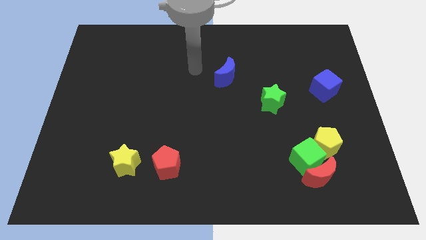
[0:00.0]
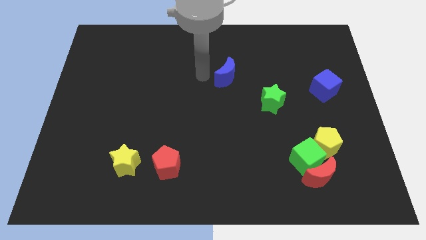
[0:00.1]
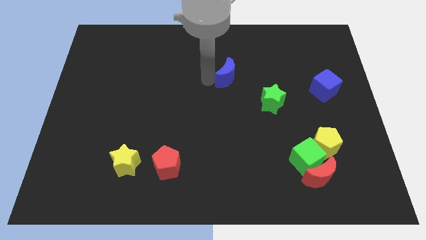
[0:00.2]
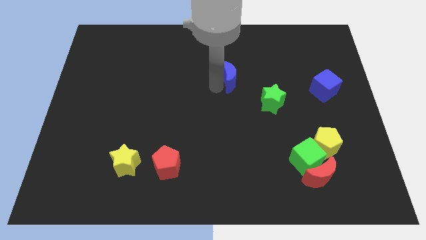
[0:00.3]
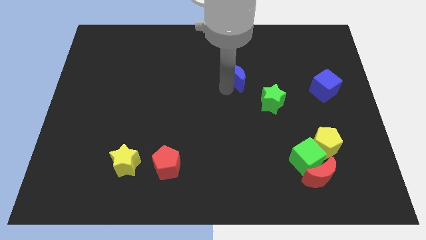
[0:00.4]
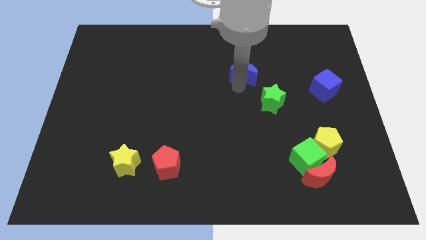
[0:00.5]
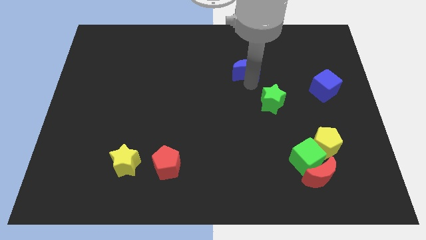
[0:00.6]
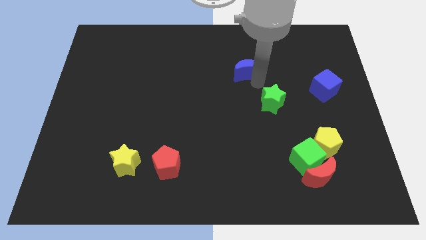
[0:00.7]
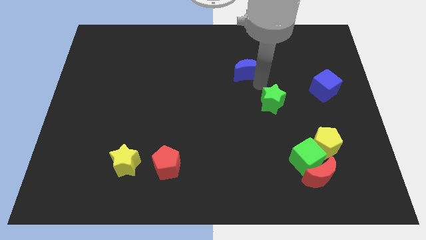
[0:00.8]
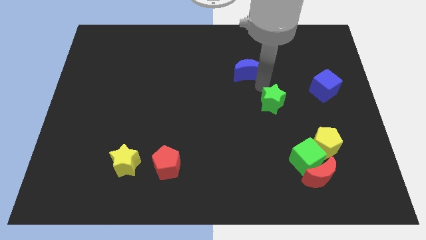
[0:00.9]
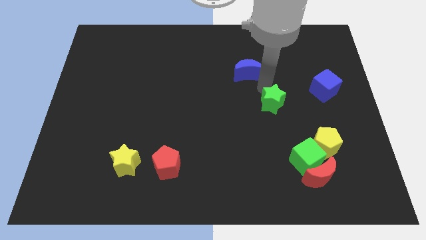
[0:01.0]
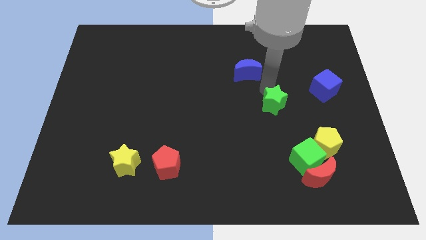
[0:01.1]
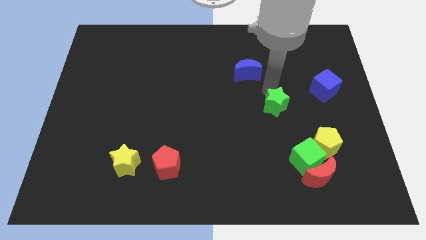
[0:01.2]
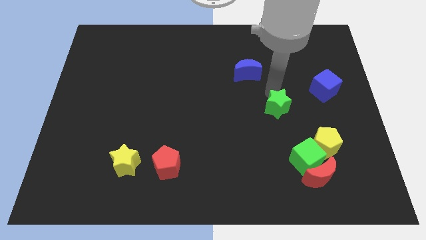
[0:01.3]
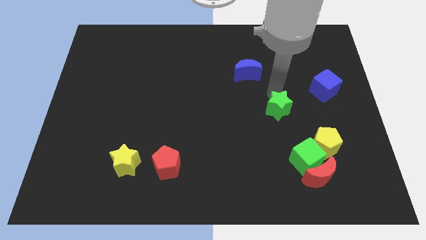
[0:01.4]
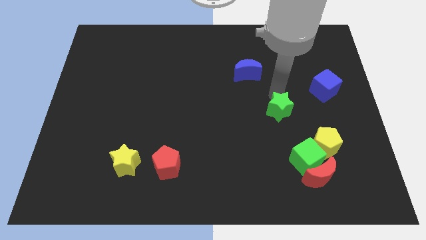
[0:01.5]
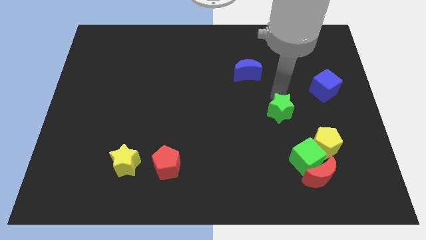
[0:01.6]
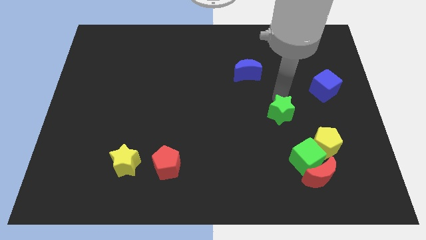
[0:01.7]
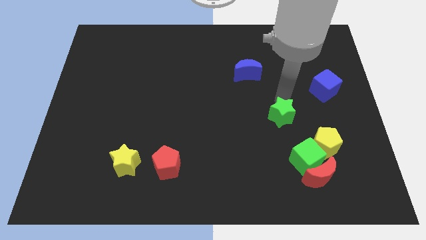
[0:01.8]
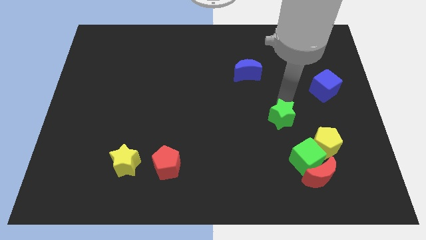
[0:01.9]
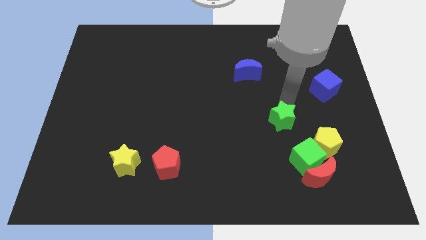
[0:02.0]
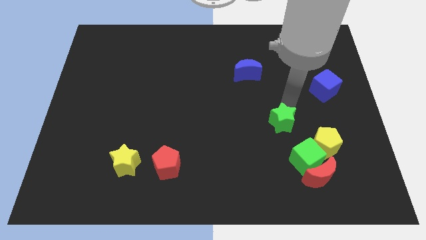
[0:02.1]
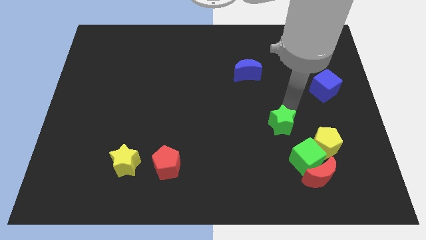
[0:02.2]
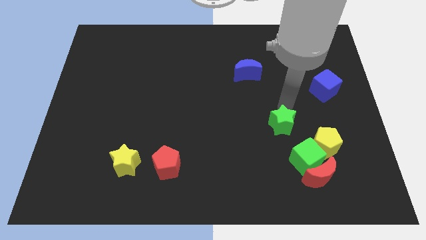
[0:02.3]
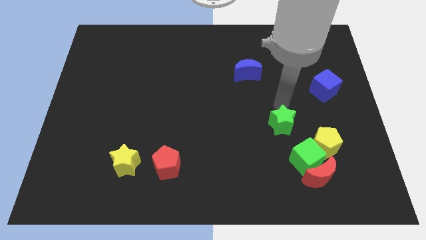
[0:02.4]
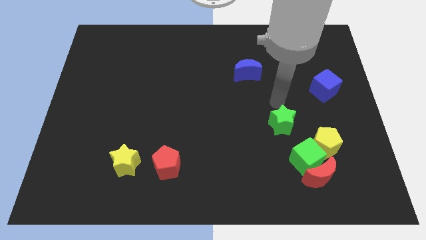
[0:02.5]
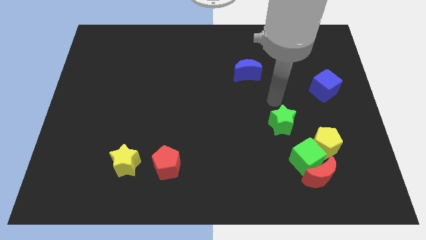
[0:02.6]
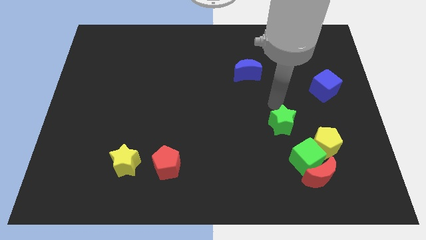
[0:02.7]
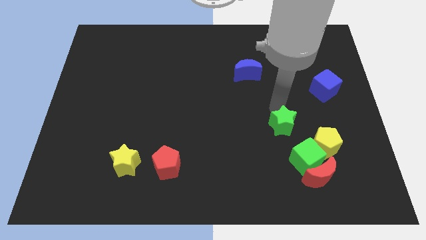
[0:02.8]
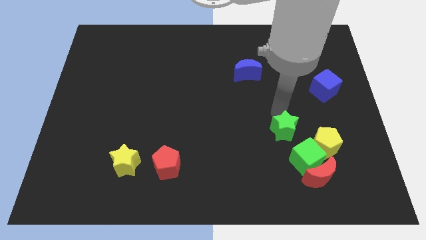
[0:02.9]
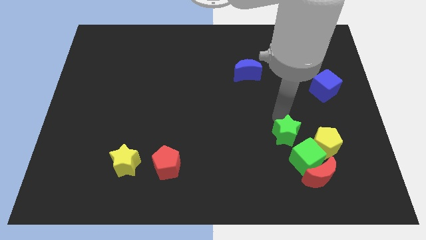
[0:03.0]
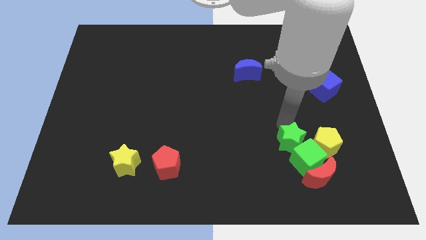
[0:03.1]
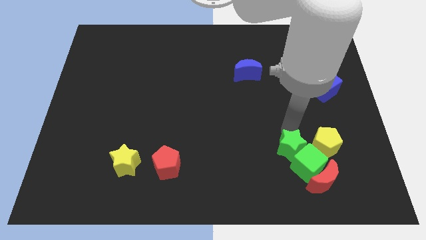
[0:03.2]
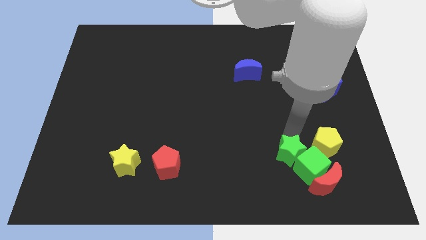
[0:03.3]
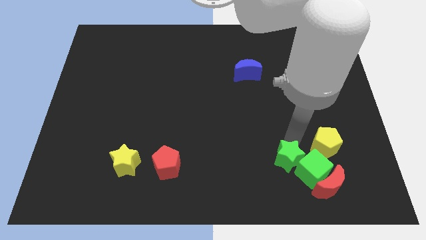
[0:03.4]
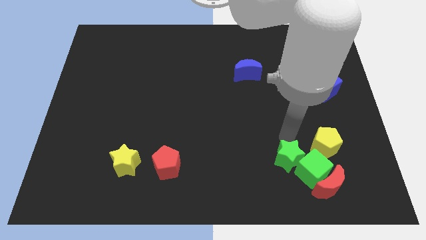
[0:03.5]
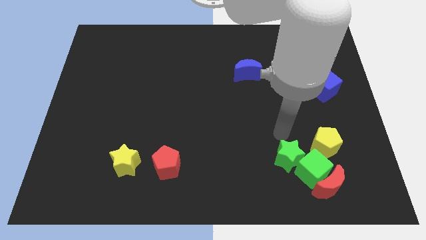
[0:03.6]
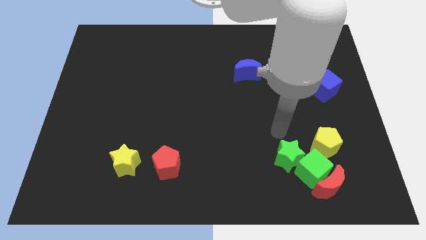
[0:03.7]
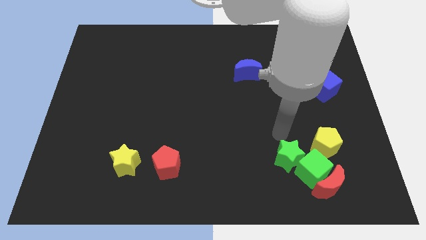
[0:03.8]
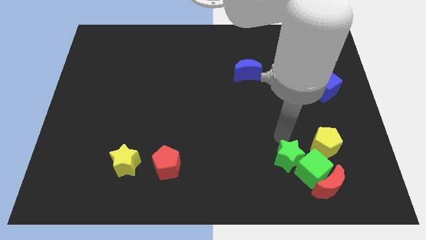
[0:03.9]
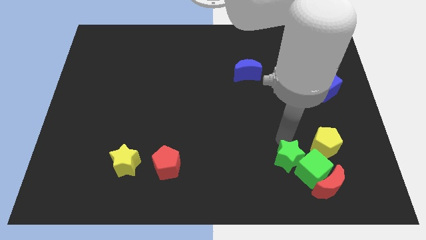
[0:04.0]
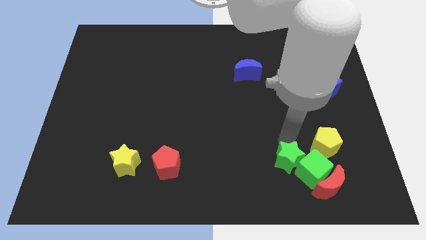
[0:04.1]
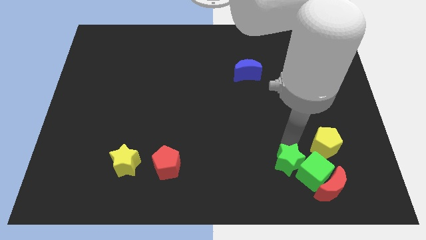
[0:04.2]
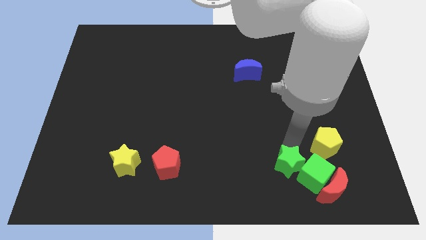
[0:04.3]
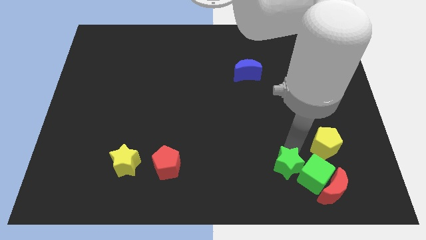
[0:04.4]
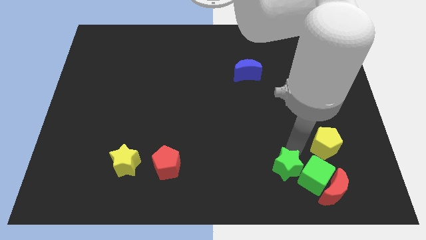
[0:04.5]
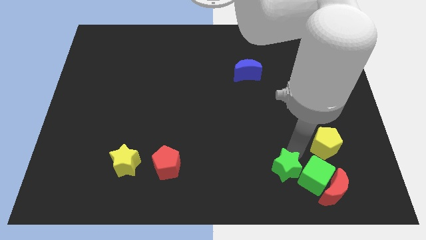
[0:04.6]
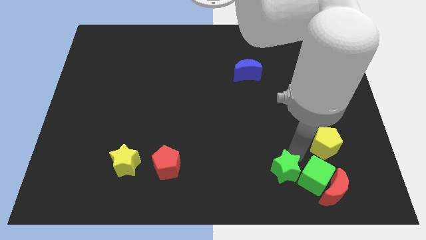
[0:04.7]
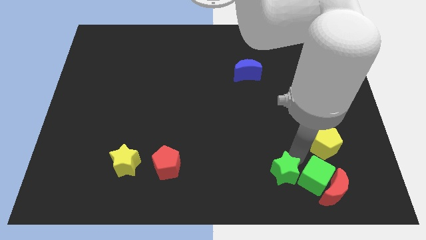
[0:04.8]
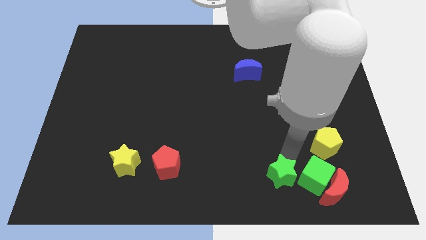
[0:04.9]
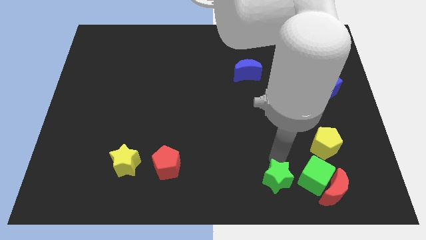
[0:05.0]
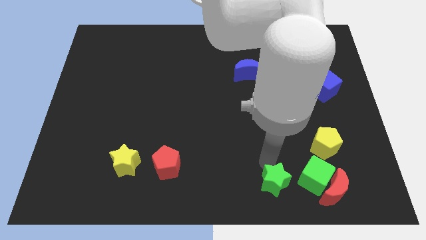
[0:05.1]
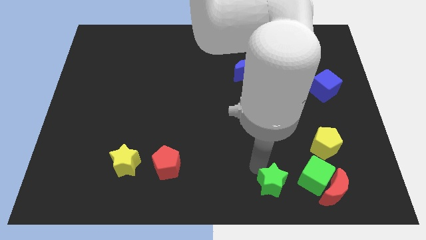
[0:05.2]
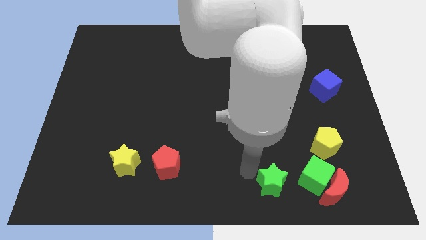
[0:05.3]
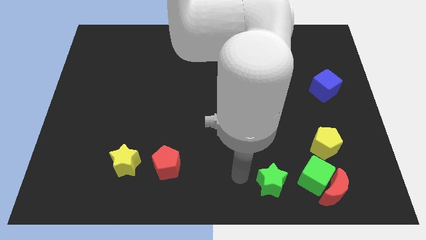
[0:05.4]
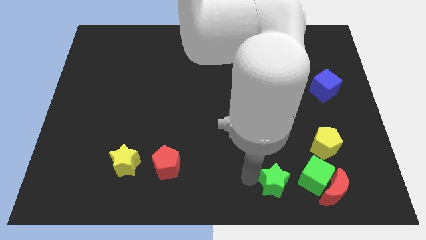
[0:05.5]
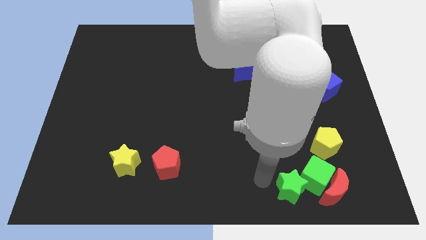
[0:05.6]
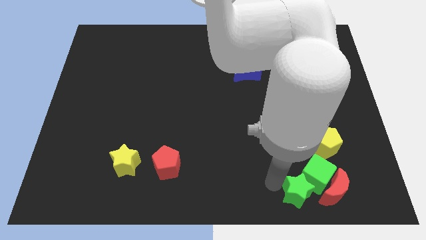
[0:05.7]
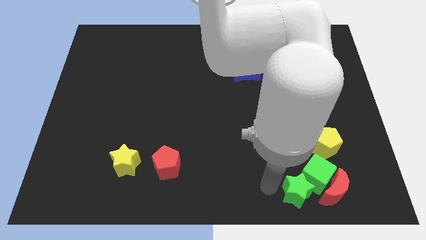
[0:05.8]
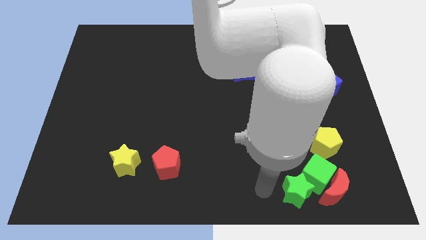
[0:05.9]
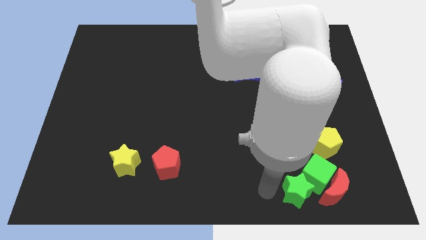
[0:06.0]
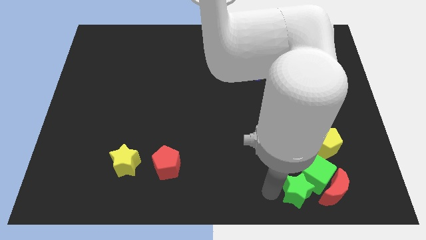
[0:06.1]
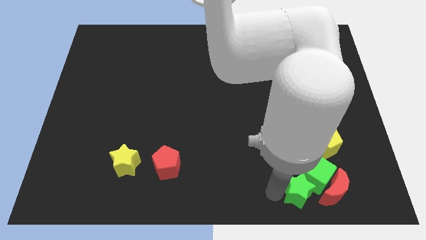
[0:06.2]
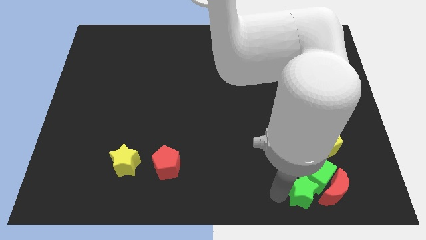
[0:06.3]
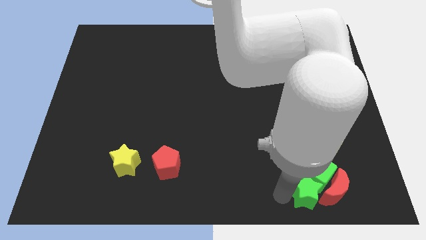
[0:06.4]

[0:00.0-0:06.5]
push the green star next to the red moon

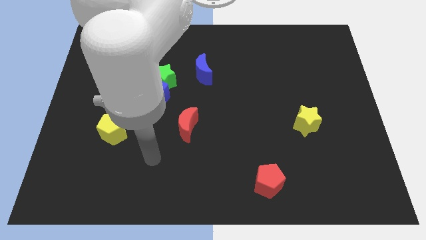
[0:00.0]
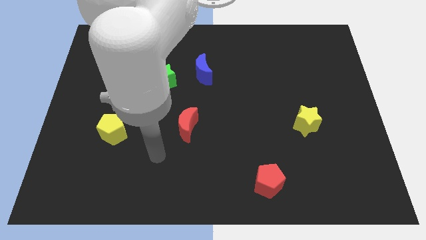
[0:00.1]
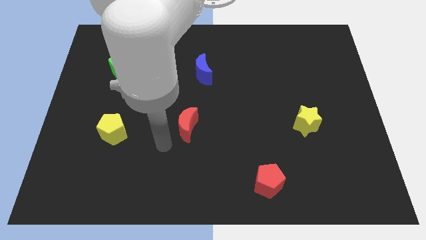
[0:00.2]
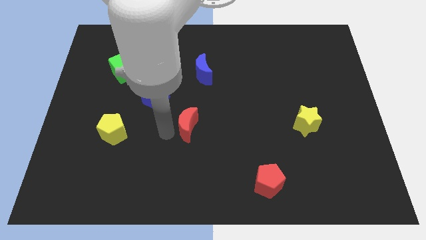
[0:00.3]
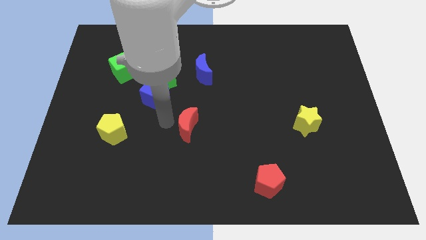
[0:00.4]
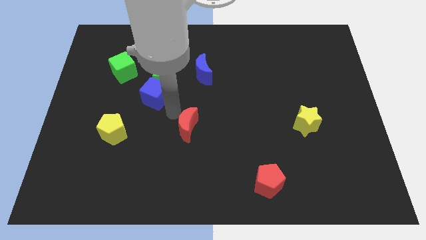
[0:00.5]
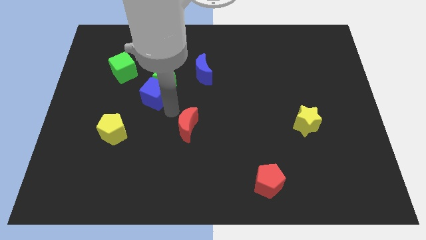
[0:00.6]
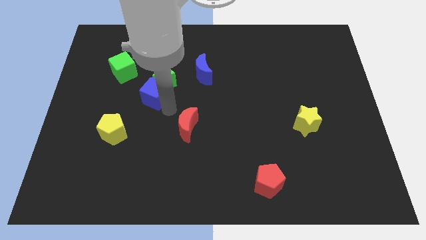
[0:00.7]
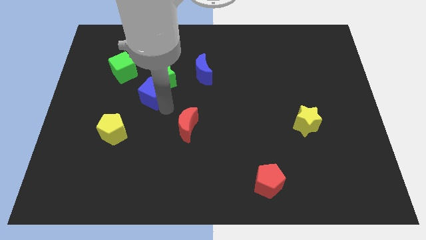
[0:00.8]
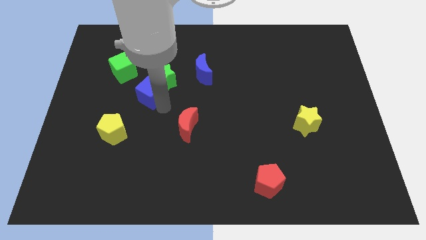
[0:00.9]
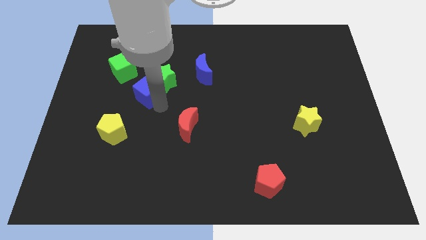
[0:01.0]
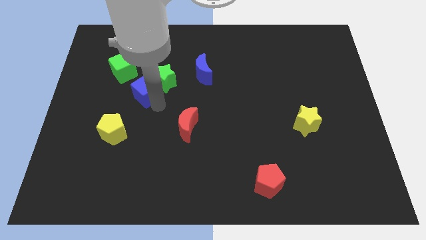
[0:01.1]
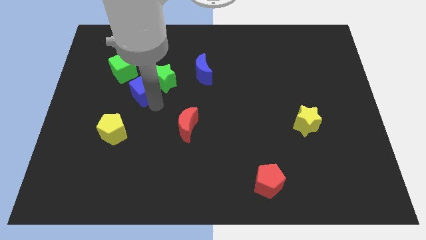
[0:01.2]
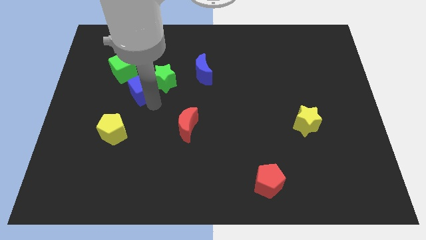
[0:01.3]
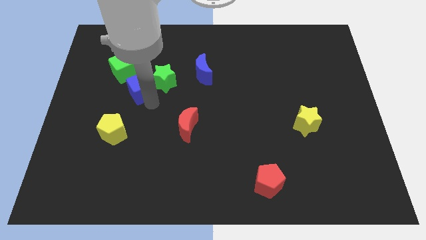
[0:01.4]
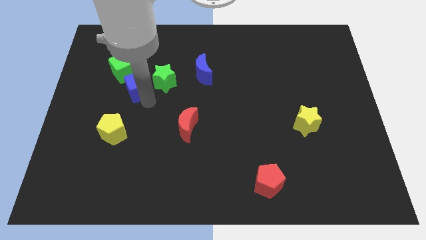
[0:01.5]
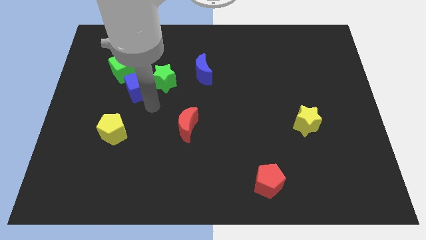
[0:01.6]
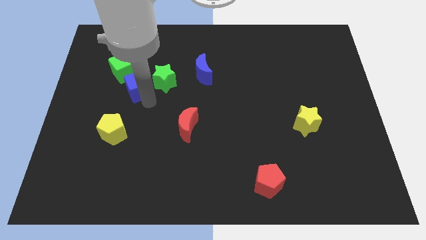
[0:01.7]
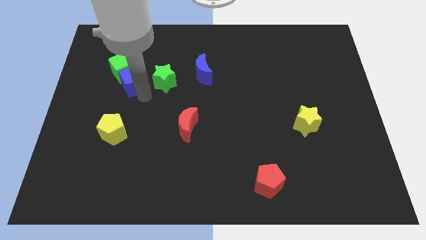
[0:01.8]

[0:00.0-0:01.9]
slide the blue cube towards the green cube
